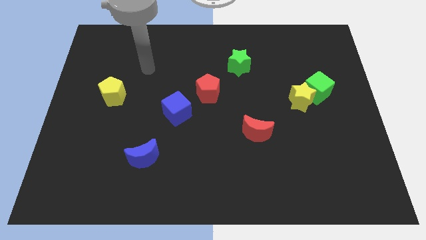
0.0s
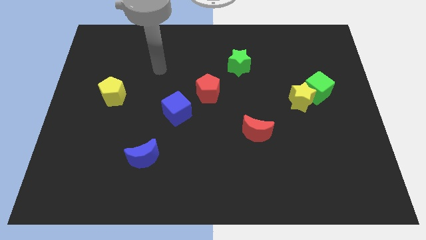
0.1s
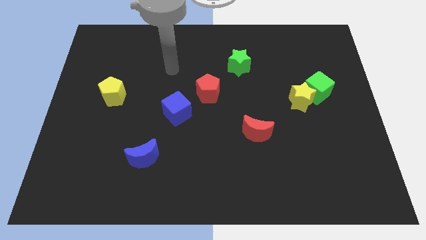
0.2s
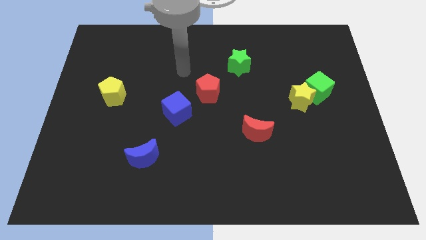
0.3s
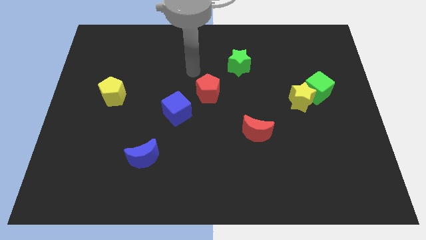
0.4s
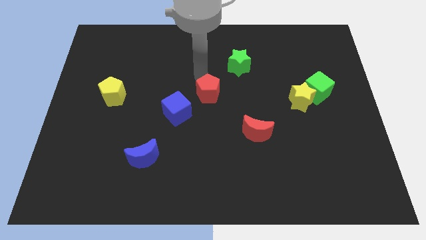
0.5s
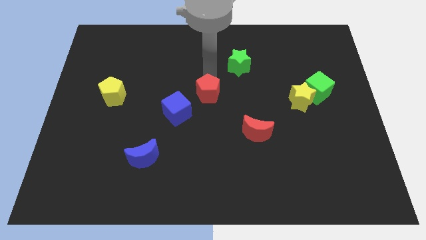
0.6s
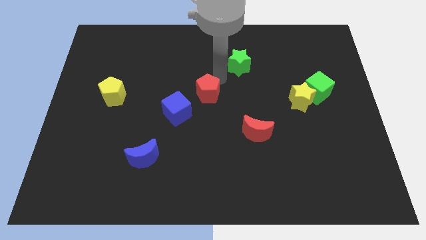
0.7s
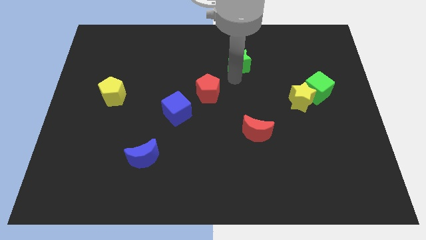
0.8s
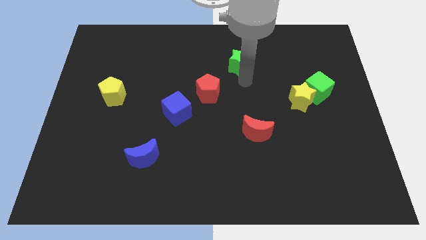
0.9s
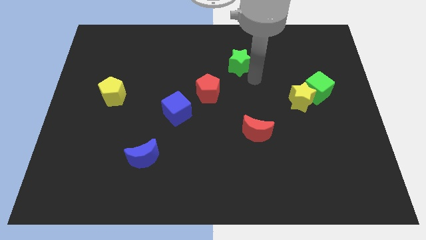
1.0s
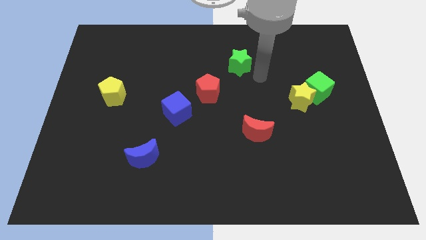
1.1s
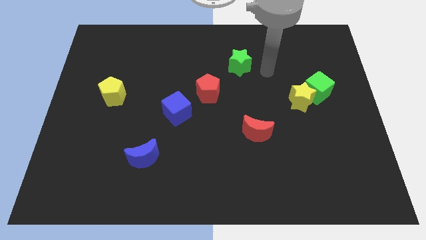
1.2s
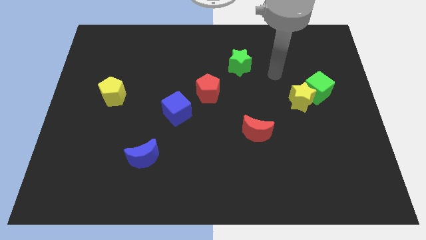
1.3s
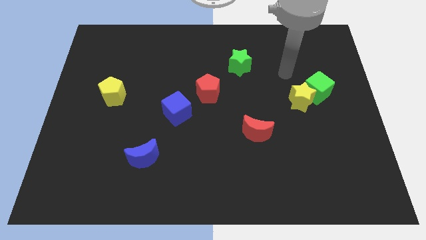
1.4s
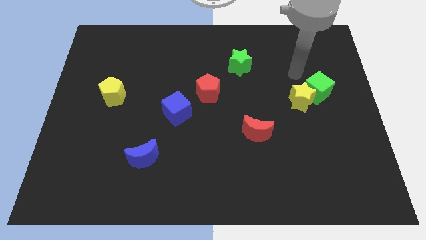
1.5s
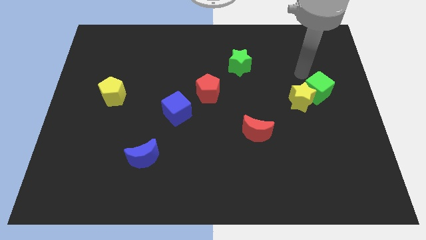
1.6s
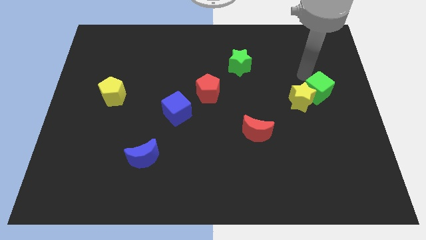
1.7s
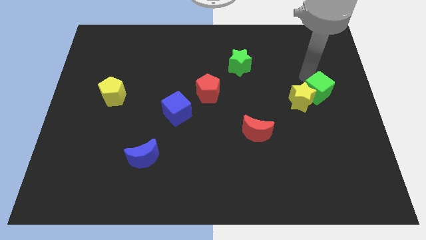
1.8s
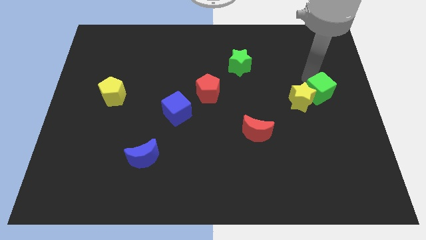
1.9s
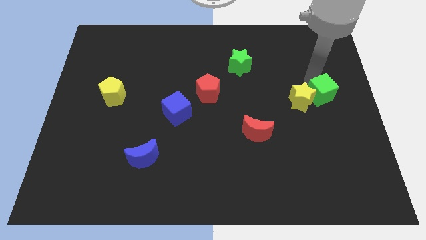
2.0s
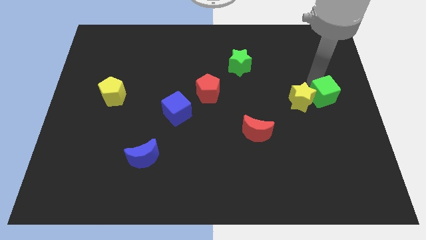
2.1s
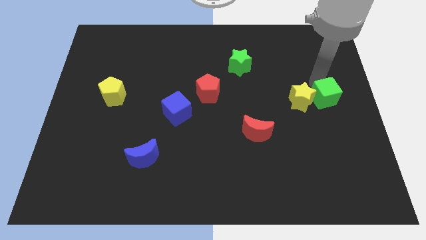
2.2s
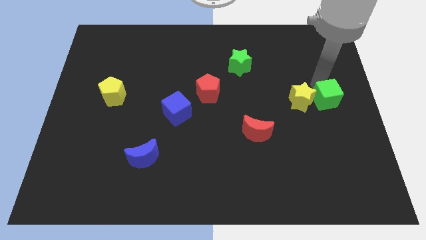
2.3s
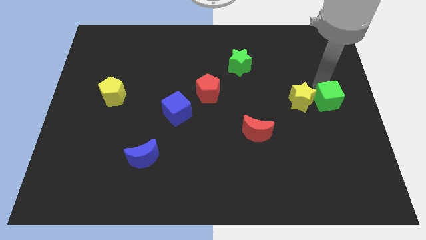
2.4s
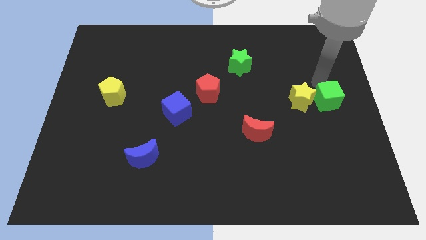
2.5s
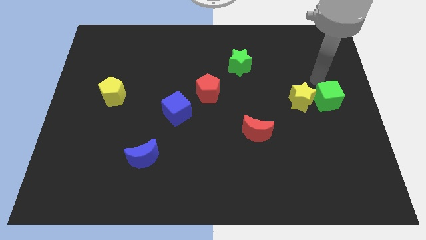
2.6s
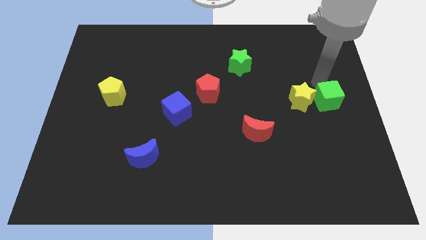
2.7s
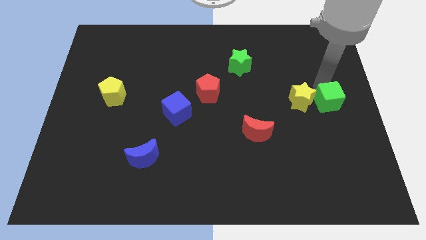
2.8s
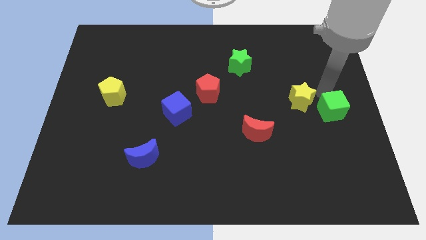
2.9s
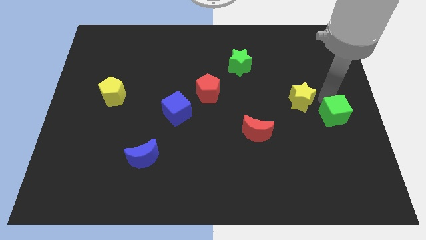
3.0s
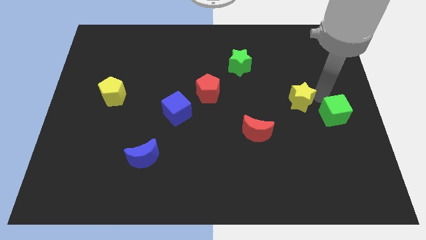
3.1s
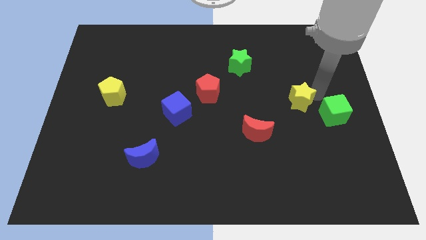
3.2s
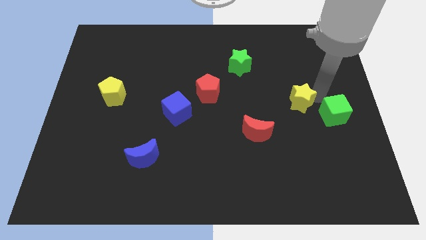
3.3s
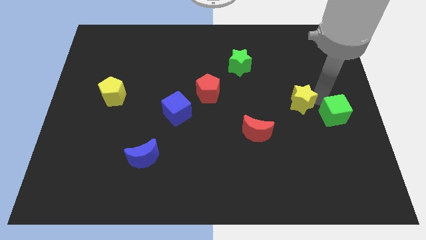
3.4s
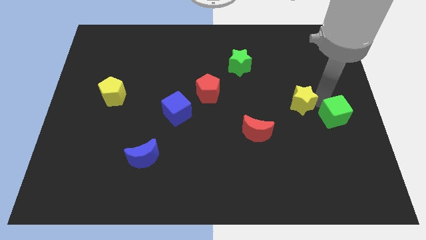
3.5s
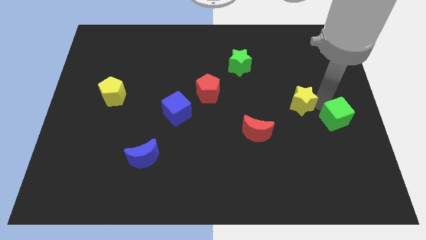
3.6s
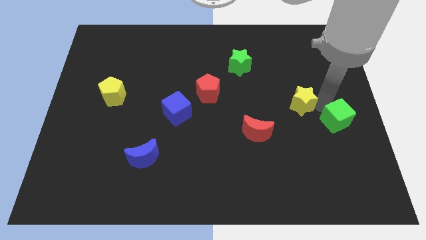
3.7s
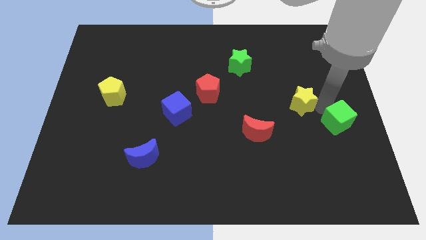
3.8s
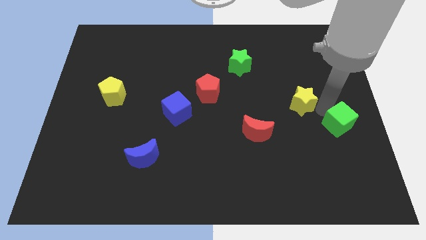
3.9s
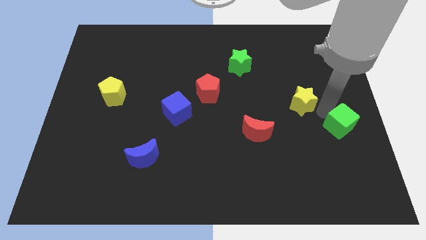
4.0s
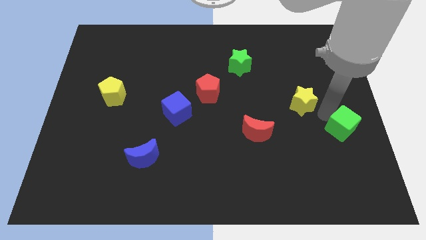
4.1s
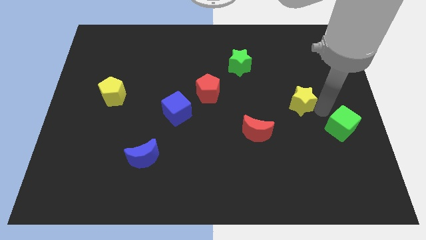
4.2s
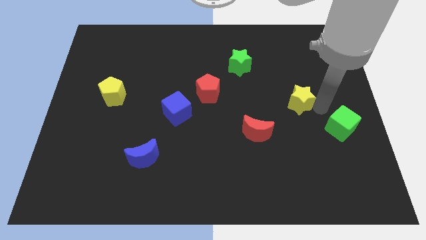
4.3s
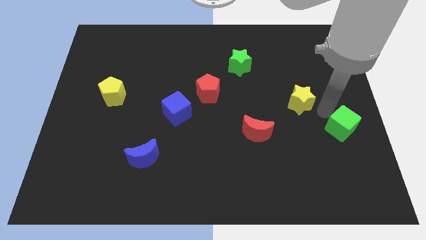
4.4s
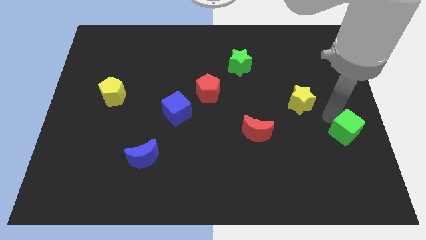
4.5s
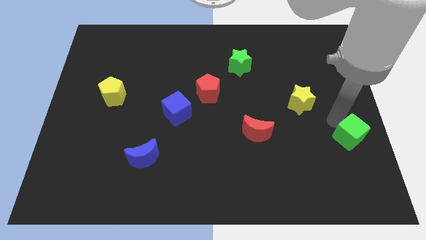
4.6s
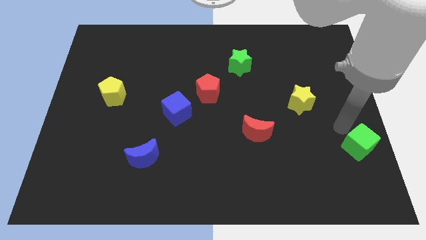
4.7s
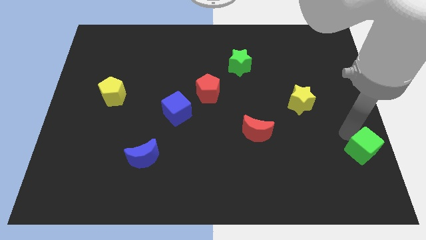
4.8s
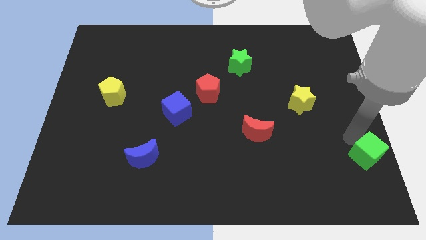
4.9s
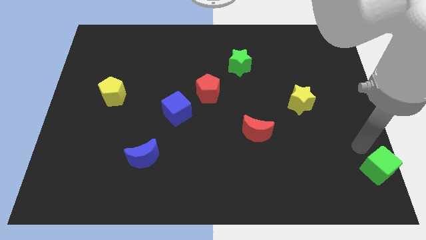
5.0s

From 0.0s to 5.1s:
push the green cube to the lower right corner

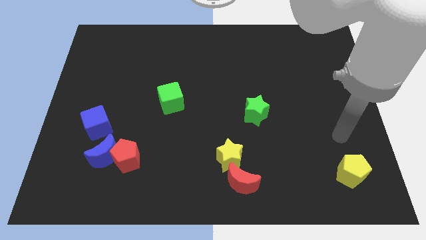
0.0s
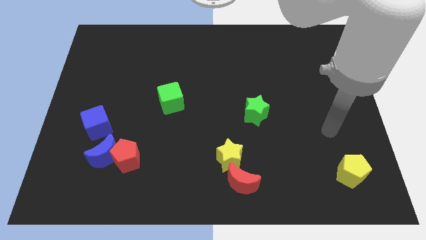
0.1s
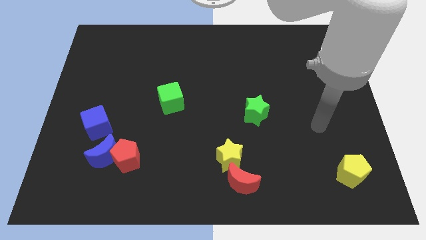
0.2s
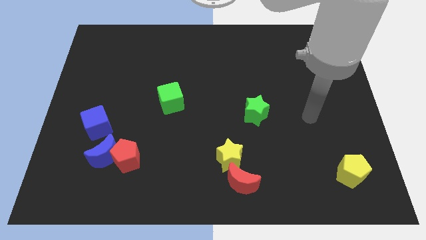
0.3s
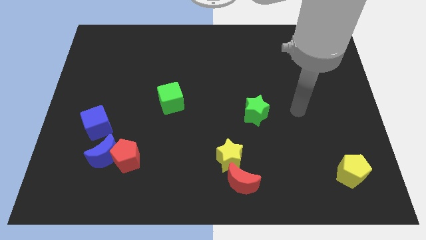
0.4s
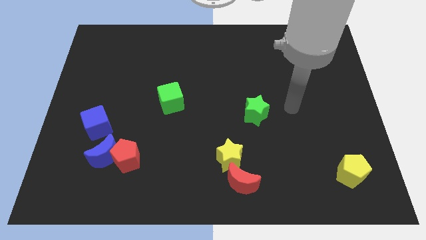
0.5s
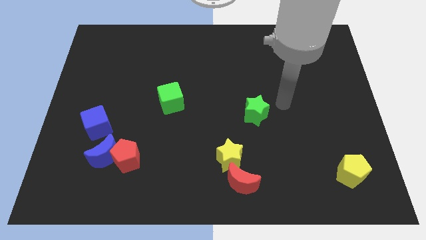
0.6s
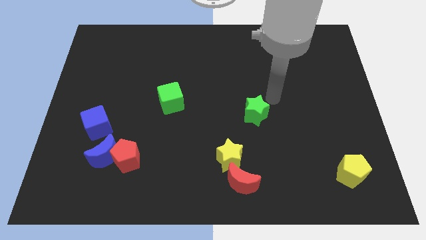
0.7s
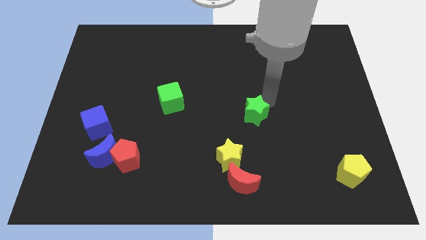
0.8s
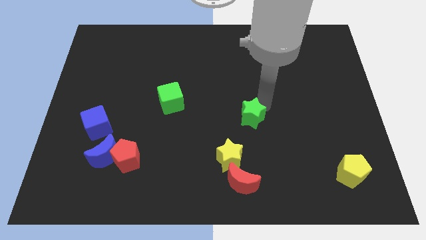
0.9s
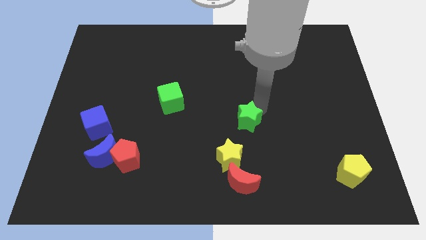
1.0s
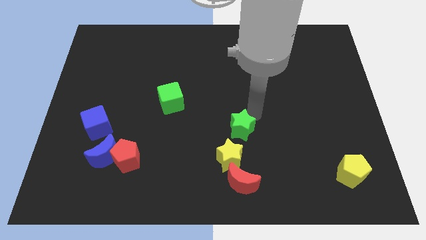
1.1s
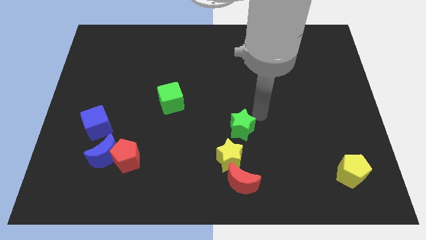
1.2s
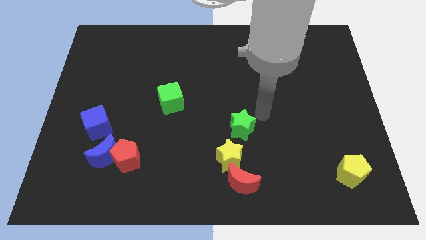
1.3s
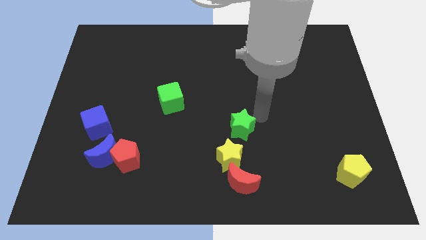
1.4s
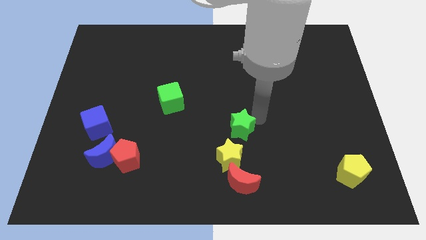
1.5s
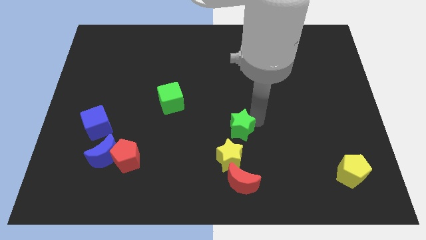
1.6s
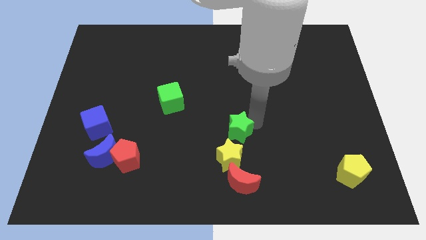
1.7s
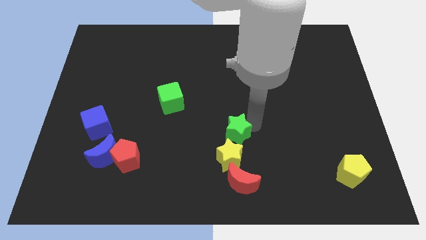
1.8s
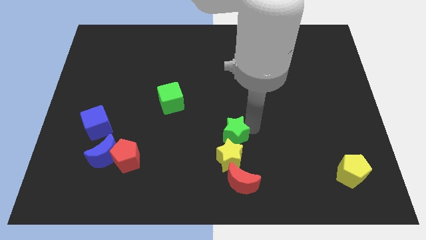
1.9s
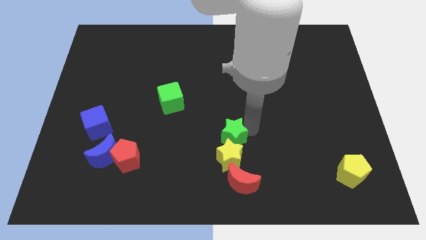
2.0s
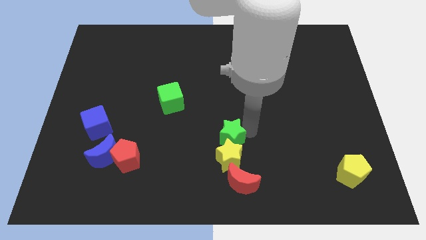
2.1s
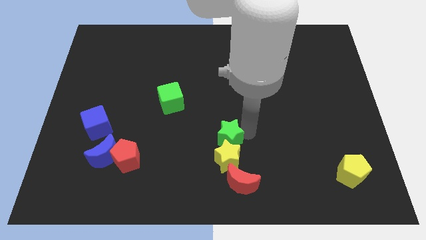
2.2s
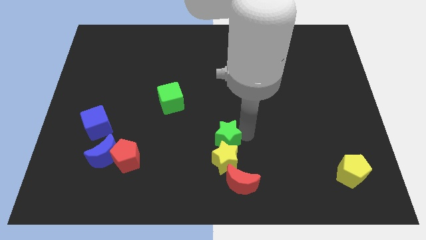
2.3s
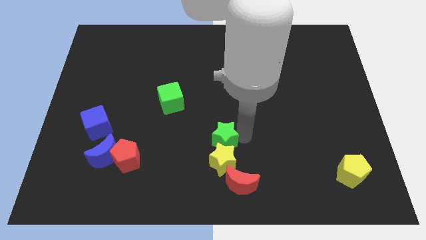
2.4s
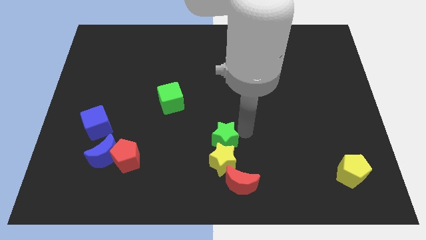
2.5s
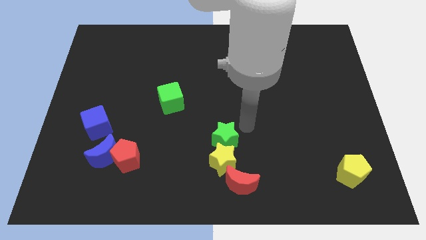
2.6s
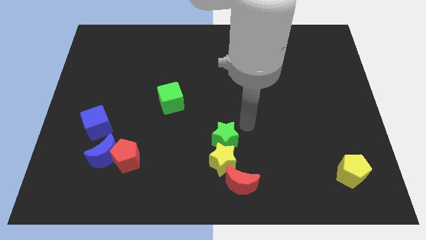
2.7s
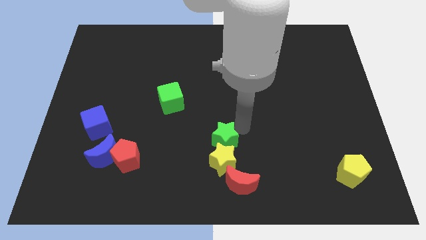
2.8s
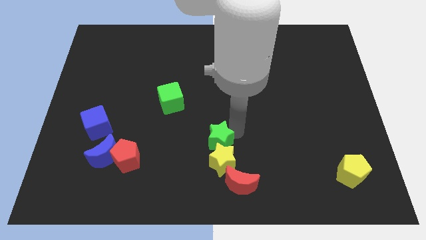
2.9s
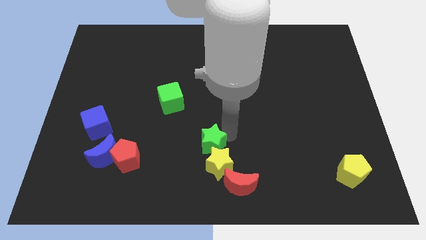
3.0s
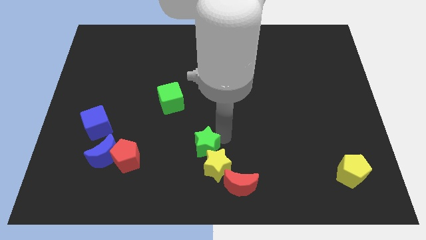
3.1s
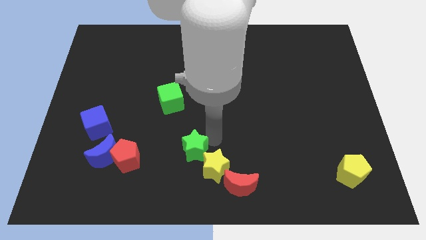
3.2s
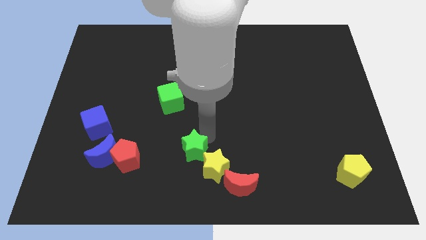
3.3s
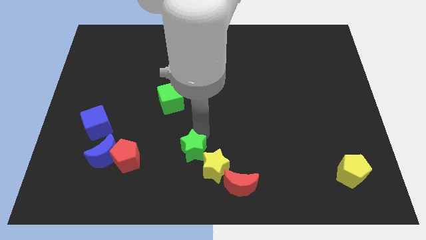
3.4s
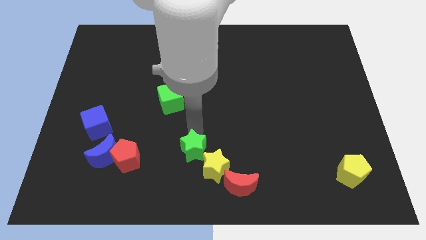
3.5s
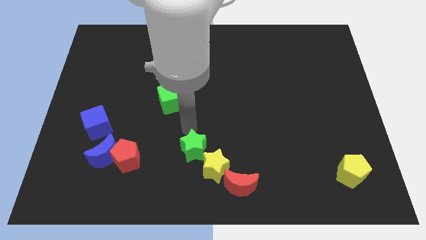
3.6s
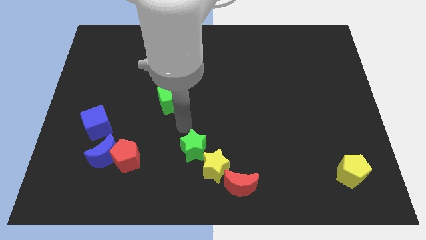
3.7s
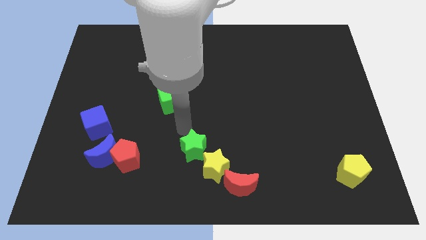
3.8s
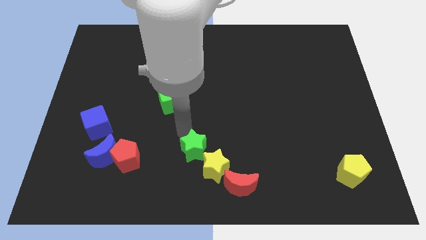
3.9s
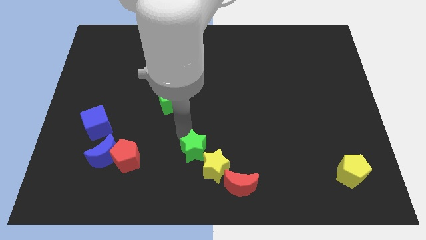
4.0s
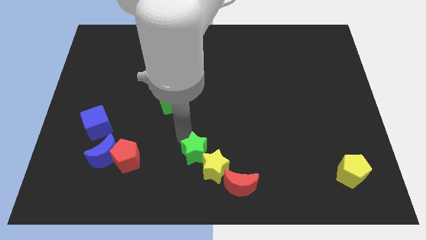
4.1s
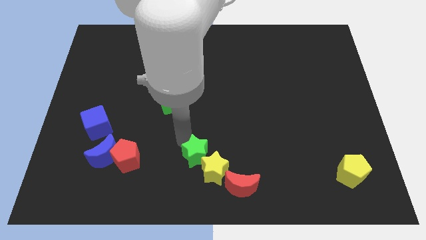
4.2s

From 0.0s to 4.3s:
push the green star to the bottom side
